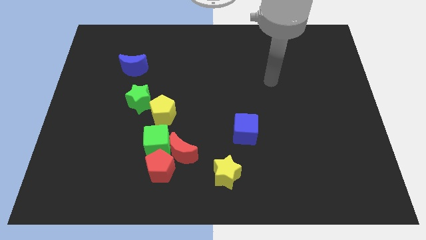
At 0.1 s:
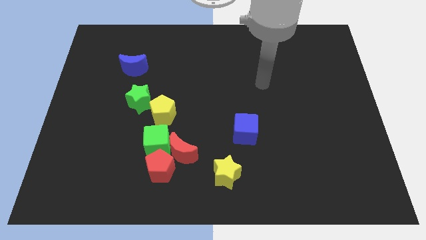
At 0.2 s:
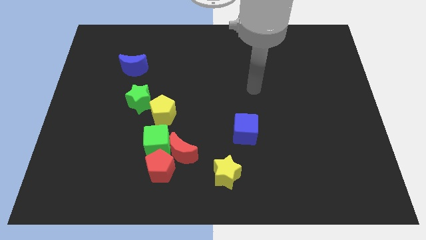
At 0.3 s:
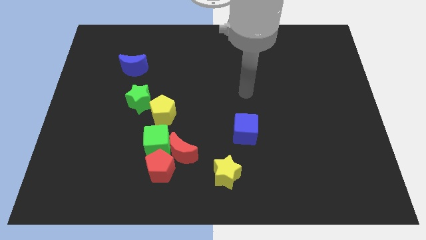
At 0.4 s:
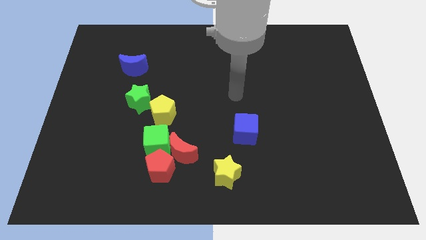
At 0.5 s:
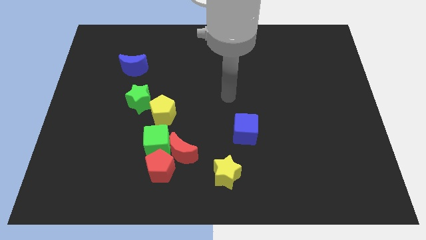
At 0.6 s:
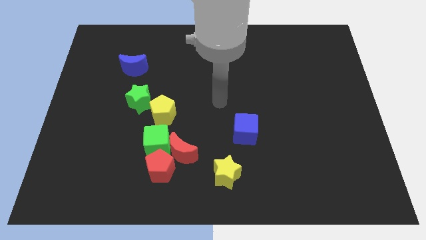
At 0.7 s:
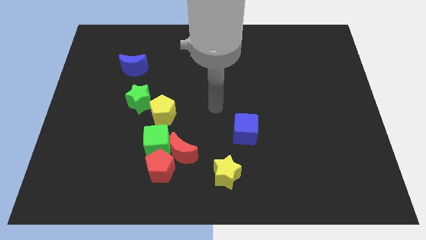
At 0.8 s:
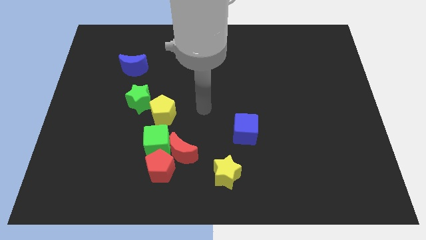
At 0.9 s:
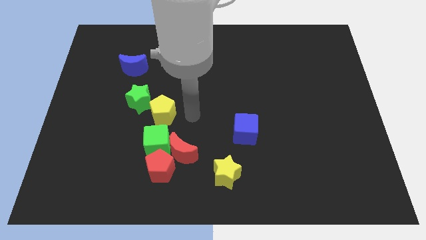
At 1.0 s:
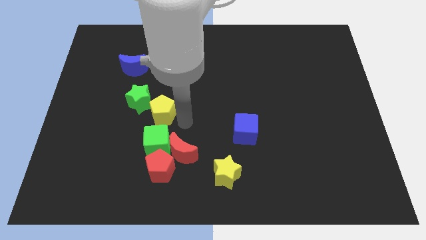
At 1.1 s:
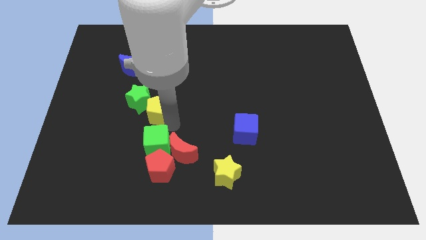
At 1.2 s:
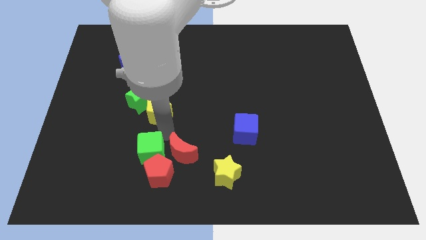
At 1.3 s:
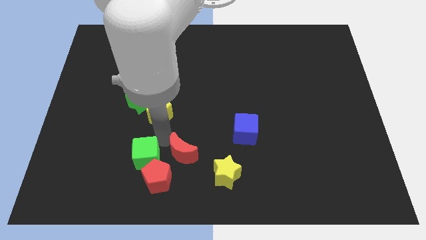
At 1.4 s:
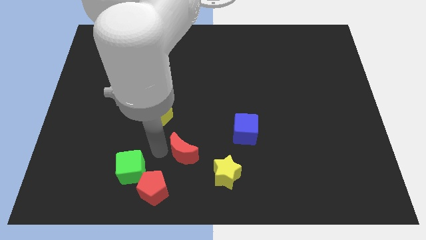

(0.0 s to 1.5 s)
move the red moon away from the red pentagon and green cube

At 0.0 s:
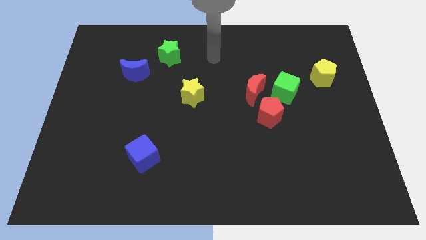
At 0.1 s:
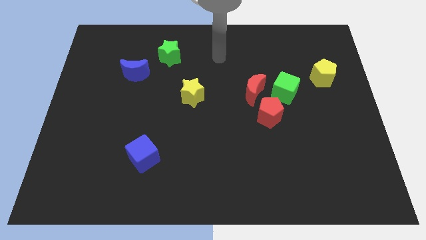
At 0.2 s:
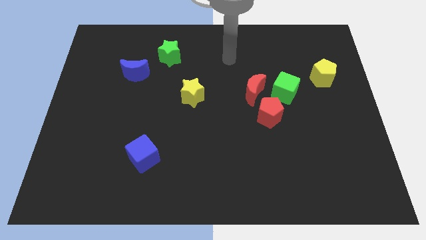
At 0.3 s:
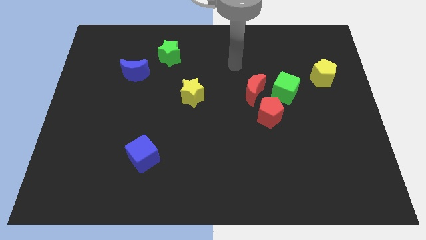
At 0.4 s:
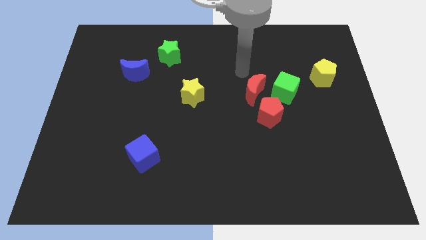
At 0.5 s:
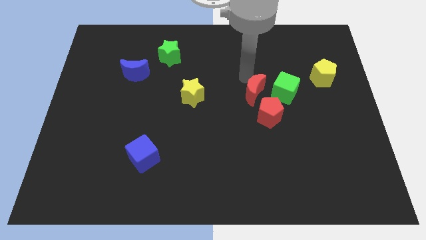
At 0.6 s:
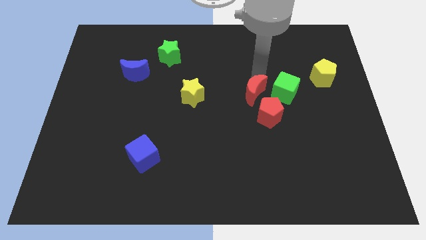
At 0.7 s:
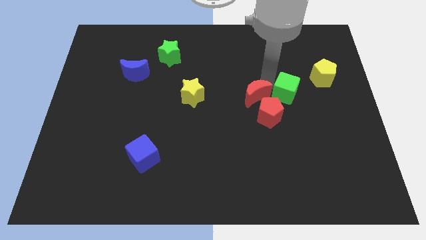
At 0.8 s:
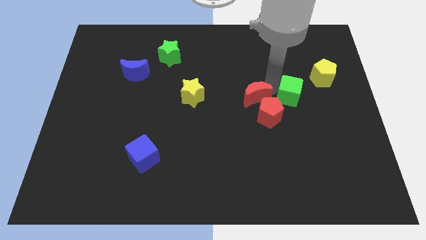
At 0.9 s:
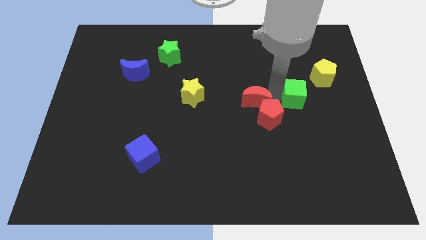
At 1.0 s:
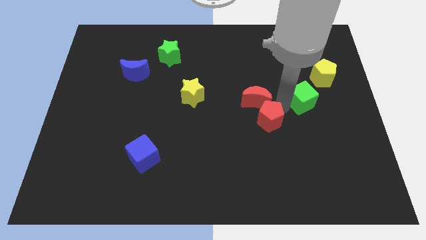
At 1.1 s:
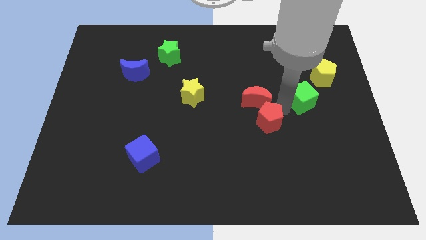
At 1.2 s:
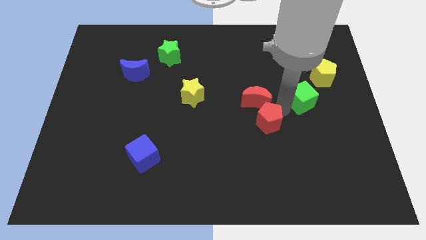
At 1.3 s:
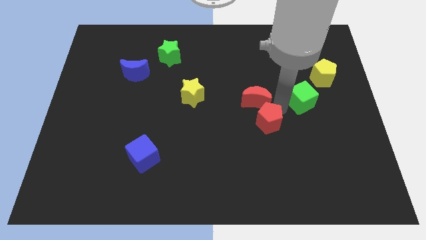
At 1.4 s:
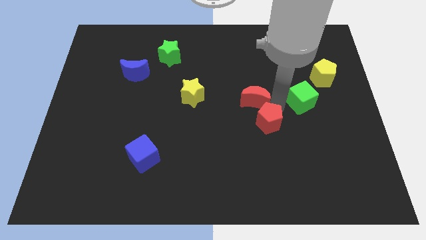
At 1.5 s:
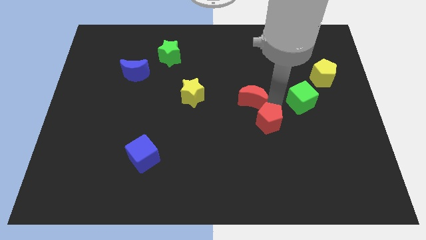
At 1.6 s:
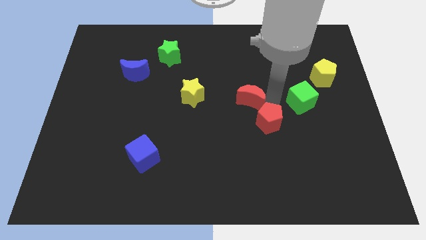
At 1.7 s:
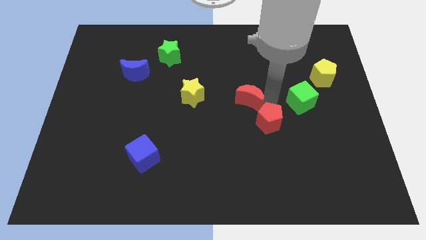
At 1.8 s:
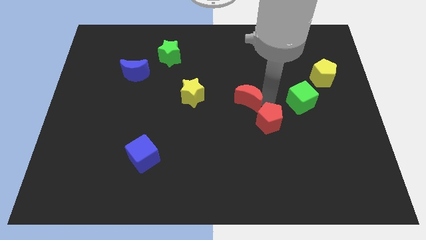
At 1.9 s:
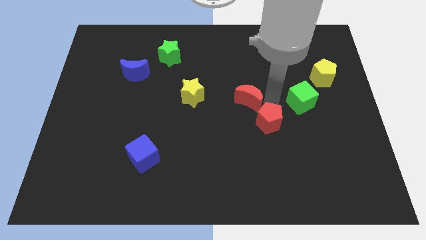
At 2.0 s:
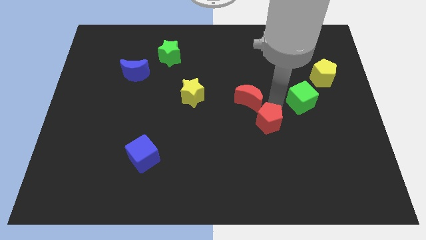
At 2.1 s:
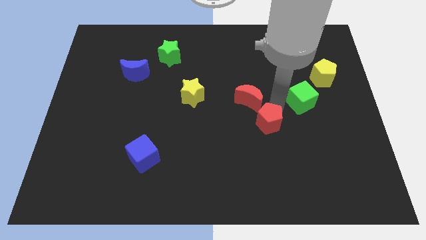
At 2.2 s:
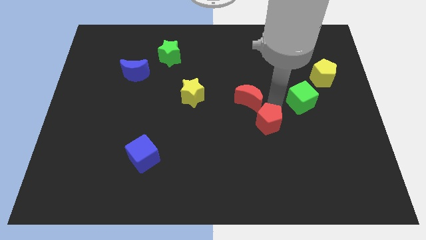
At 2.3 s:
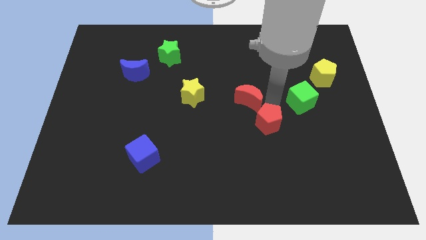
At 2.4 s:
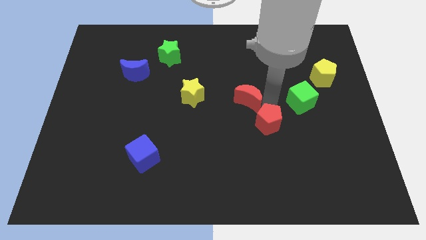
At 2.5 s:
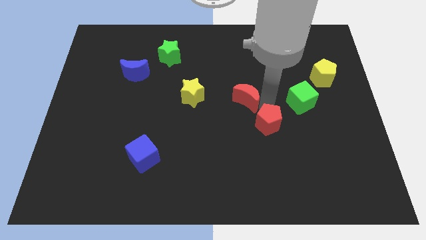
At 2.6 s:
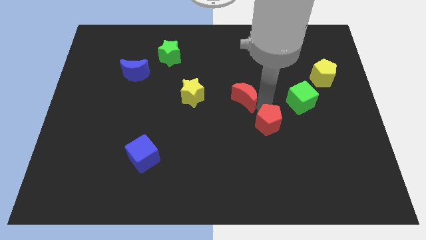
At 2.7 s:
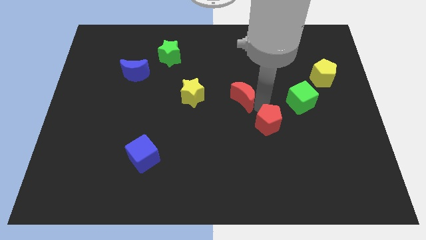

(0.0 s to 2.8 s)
separate the red moon from the green cube and red pentagon

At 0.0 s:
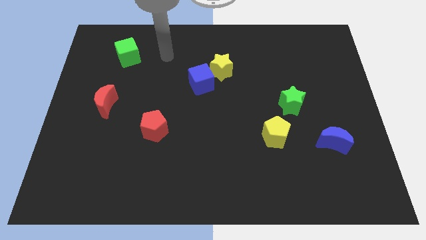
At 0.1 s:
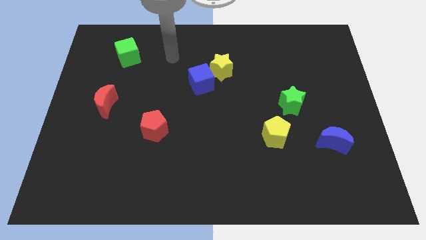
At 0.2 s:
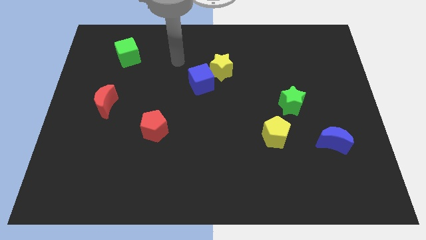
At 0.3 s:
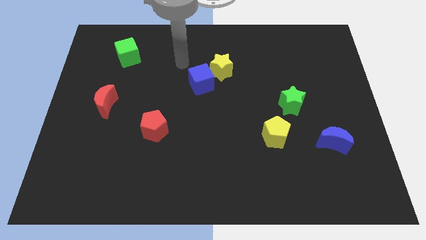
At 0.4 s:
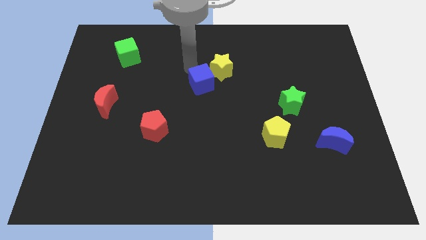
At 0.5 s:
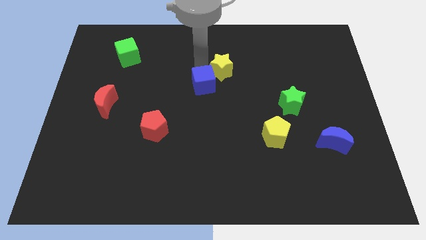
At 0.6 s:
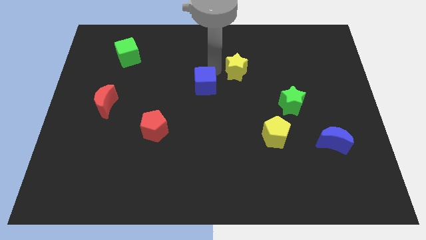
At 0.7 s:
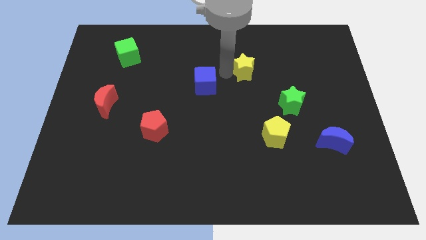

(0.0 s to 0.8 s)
move the blue cube away from the yellow star

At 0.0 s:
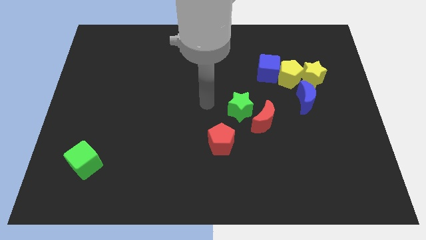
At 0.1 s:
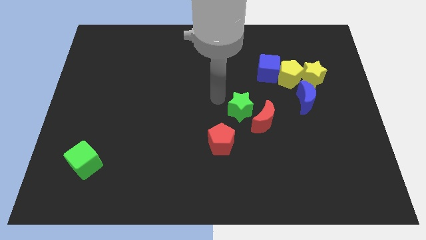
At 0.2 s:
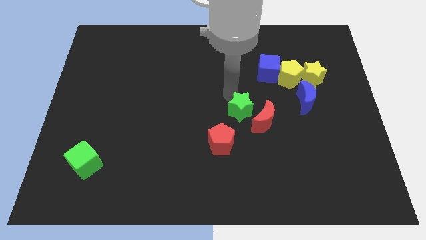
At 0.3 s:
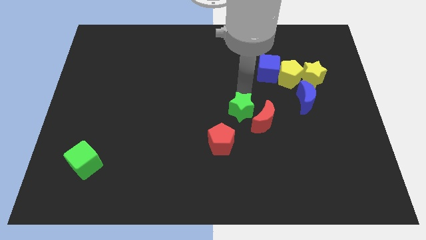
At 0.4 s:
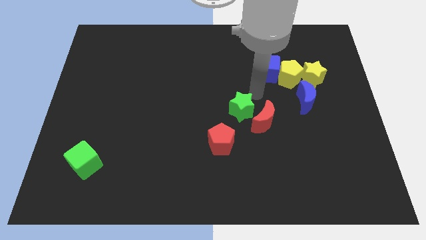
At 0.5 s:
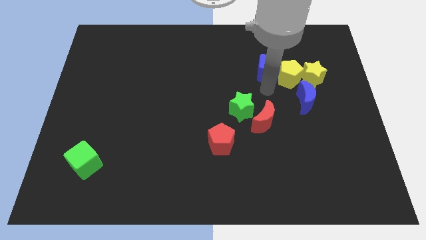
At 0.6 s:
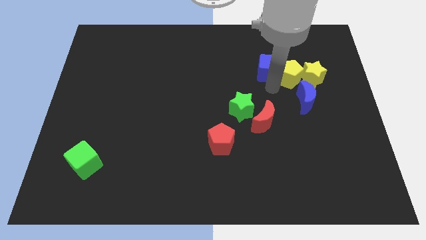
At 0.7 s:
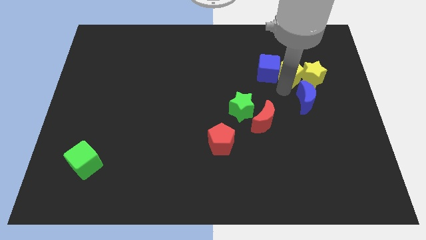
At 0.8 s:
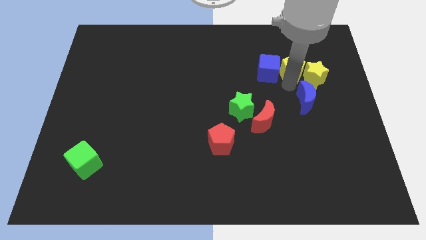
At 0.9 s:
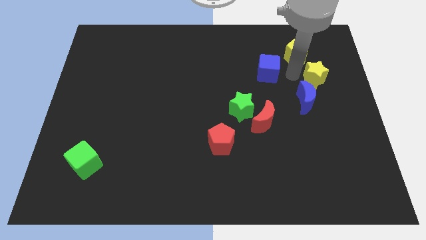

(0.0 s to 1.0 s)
move the blue cube away from the yellow pentagon

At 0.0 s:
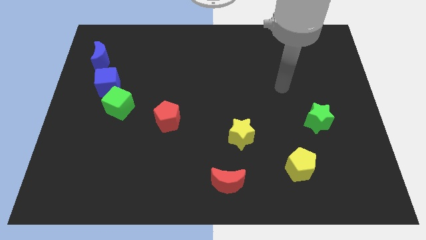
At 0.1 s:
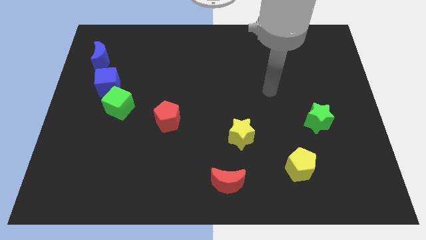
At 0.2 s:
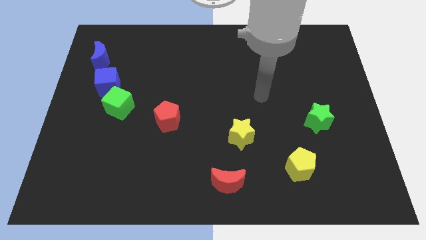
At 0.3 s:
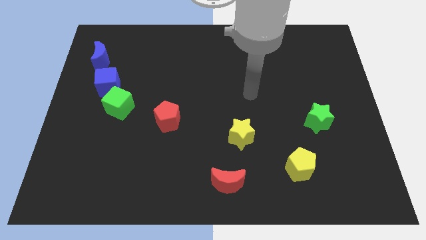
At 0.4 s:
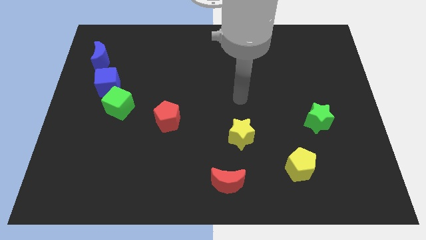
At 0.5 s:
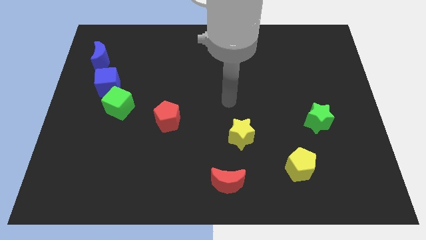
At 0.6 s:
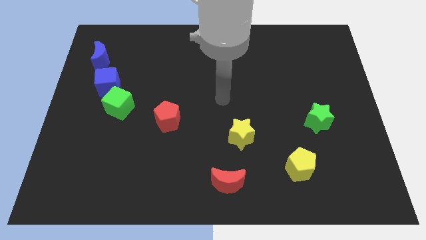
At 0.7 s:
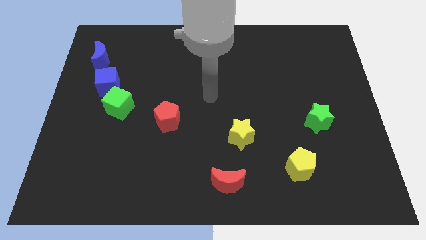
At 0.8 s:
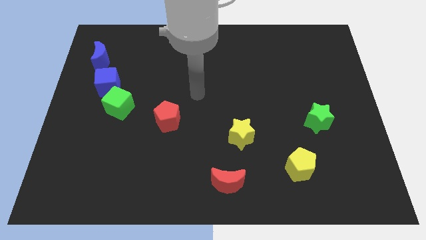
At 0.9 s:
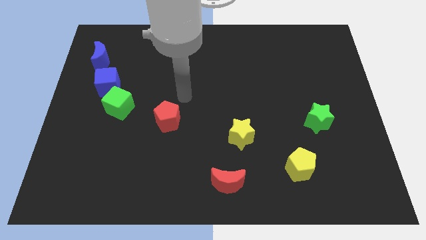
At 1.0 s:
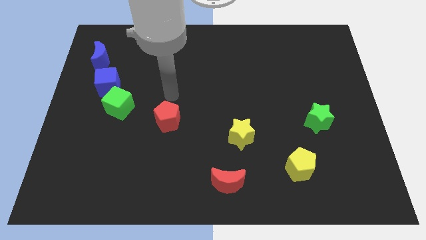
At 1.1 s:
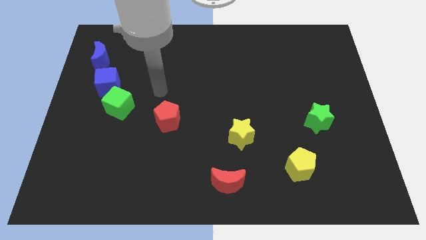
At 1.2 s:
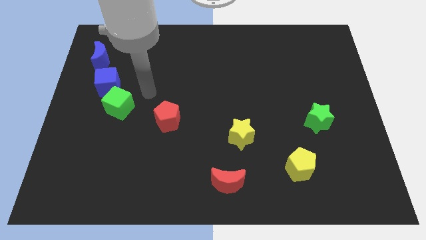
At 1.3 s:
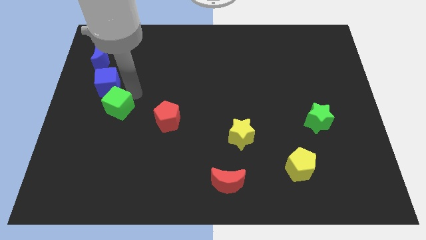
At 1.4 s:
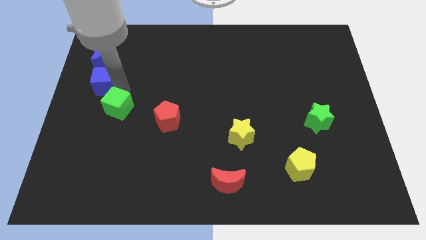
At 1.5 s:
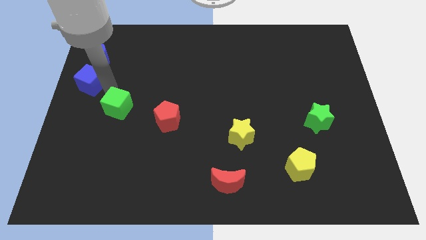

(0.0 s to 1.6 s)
separate the green cube from the blue cube

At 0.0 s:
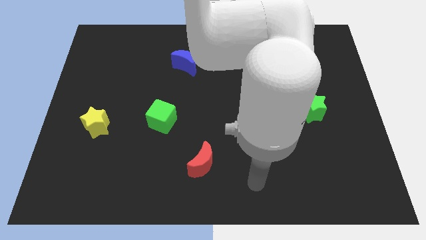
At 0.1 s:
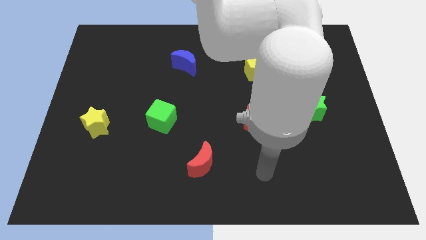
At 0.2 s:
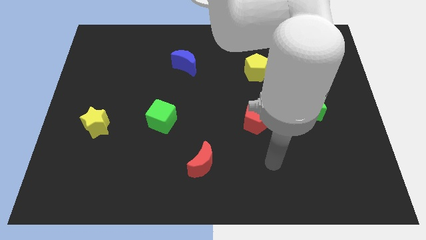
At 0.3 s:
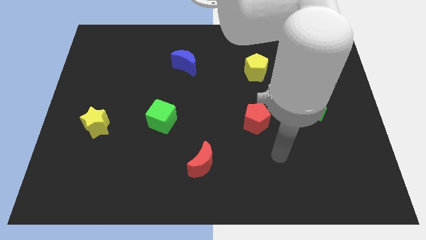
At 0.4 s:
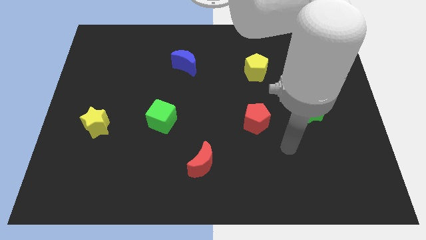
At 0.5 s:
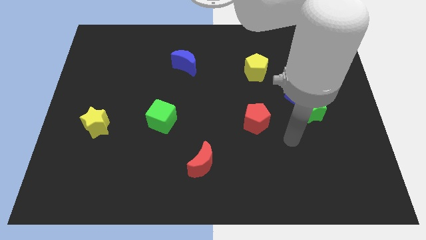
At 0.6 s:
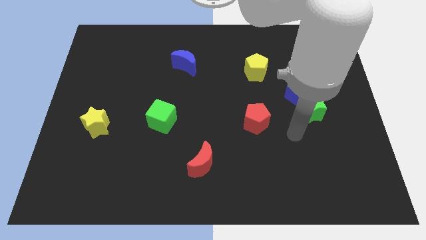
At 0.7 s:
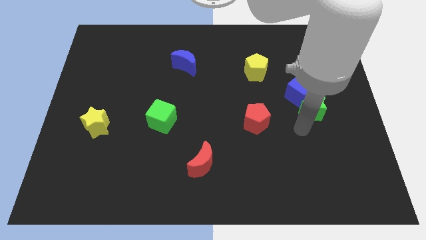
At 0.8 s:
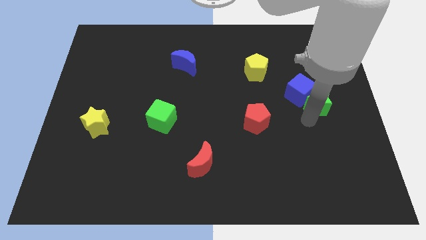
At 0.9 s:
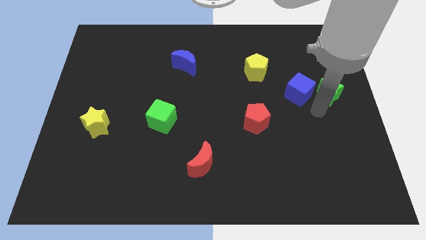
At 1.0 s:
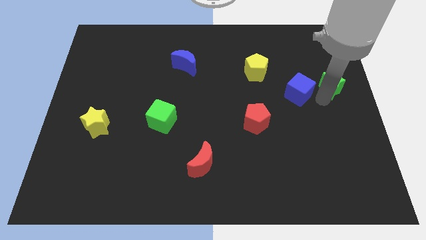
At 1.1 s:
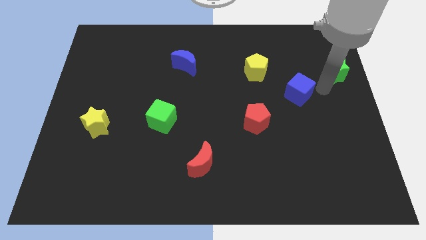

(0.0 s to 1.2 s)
separate the blue cube from the green star

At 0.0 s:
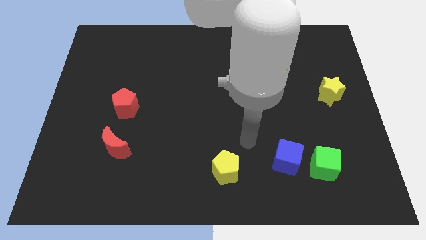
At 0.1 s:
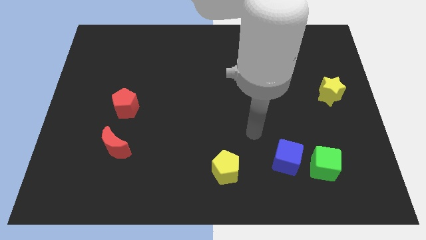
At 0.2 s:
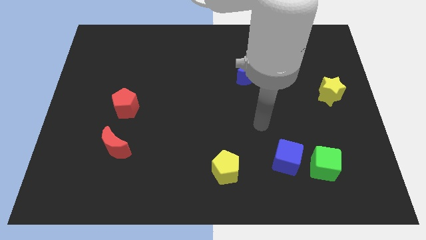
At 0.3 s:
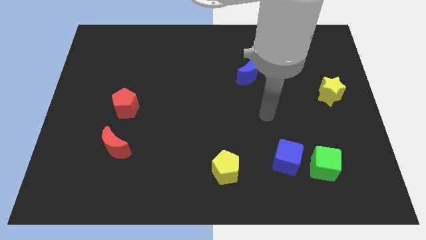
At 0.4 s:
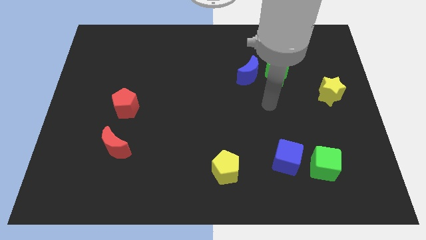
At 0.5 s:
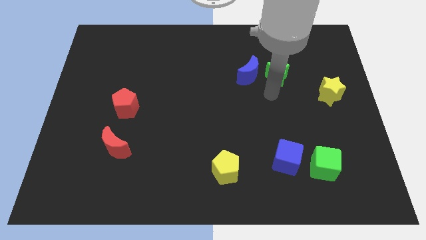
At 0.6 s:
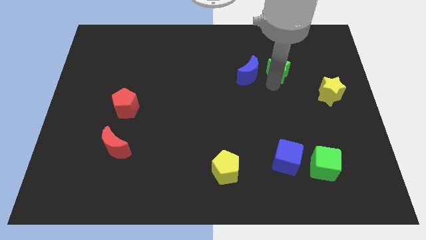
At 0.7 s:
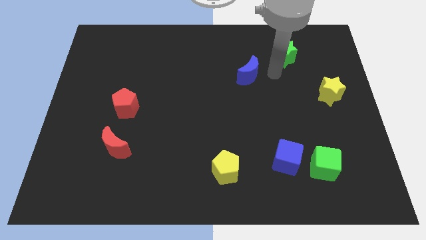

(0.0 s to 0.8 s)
pull the blue moon apart from the green star
